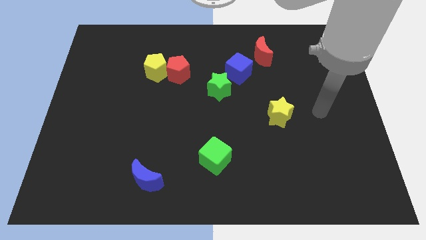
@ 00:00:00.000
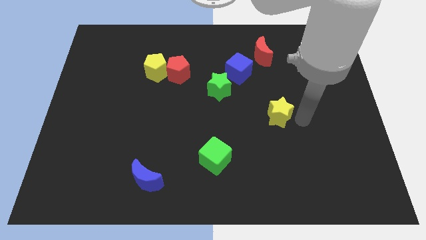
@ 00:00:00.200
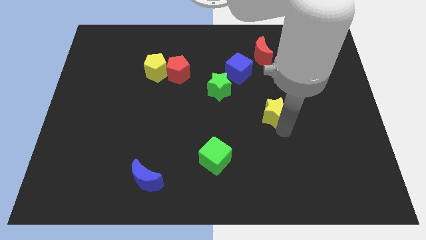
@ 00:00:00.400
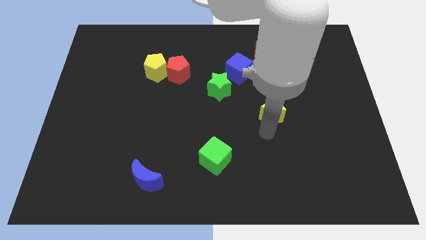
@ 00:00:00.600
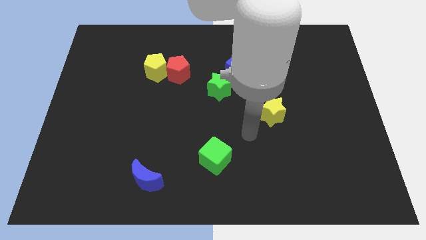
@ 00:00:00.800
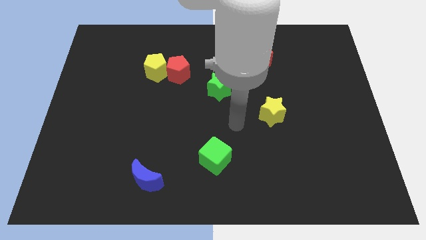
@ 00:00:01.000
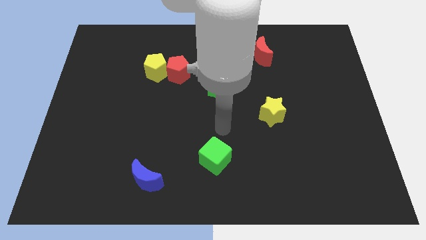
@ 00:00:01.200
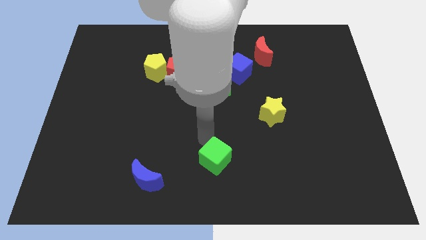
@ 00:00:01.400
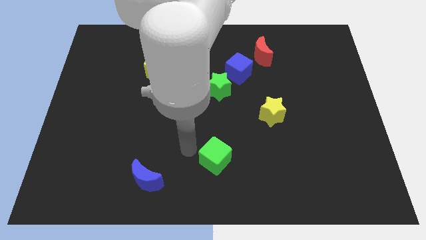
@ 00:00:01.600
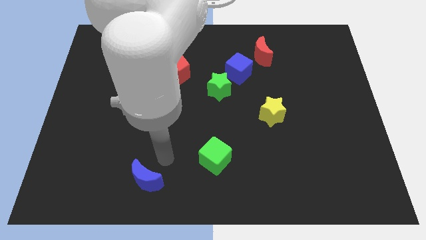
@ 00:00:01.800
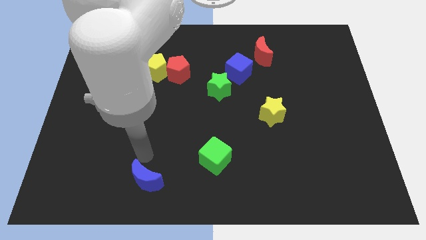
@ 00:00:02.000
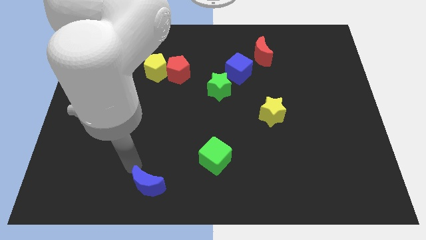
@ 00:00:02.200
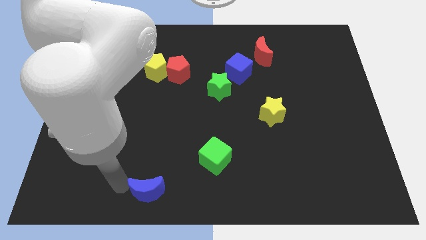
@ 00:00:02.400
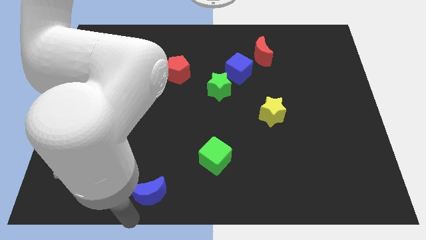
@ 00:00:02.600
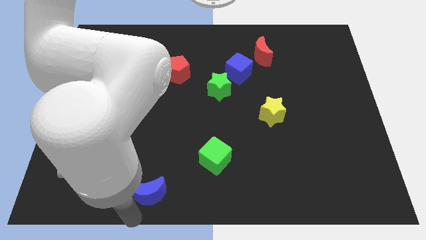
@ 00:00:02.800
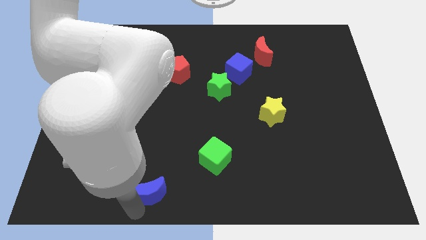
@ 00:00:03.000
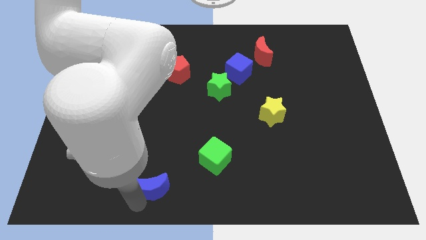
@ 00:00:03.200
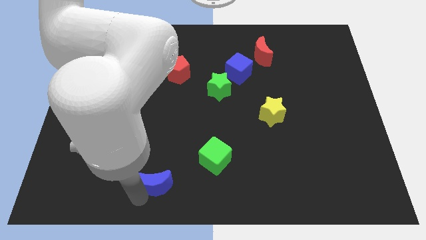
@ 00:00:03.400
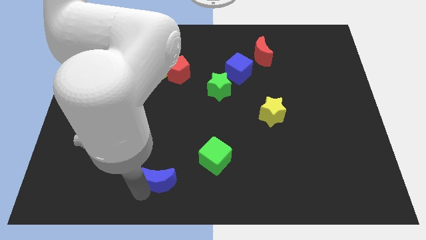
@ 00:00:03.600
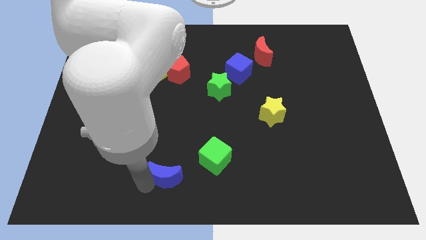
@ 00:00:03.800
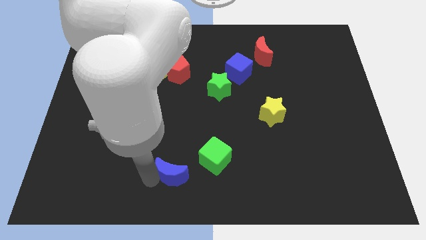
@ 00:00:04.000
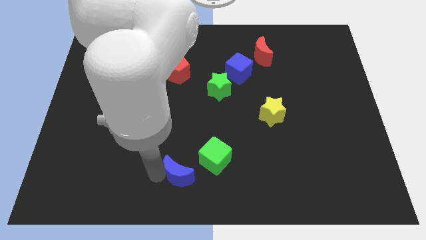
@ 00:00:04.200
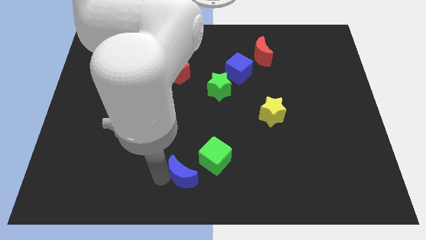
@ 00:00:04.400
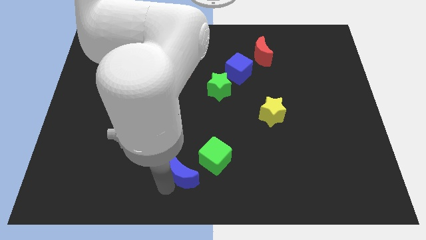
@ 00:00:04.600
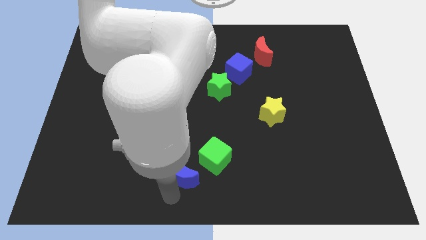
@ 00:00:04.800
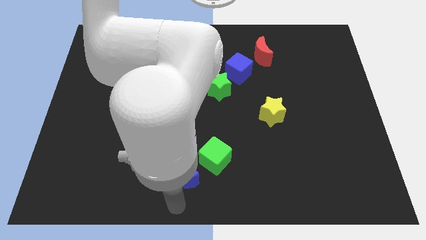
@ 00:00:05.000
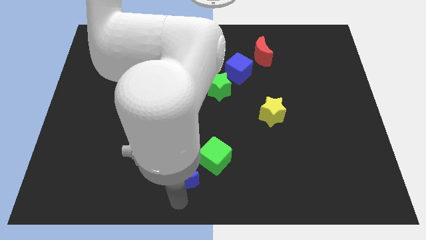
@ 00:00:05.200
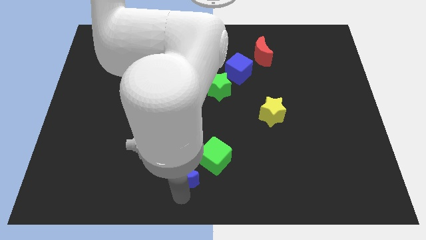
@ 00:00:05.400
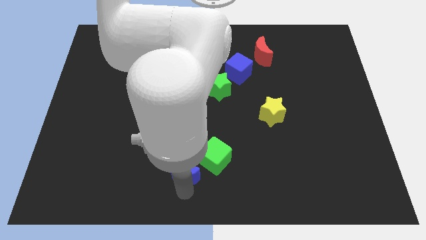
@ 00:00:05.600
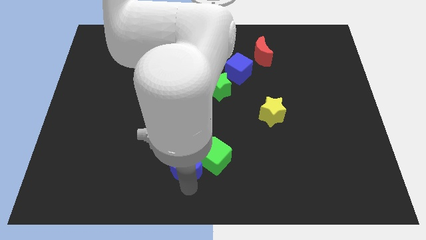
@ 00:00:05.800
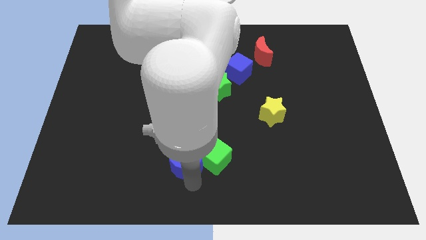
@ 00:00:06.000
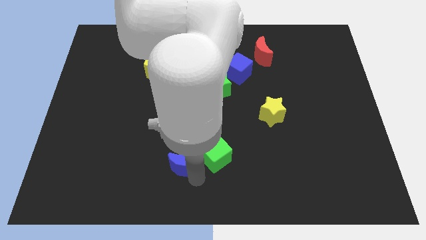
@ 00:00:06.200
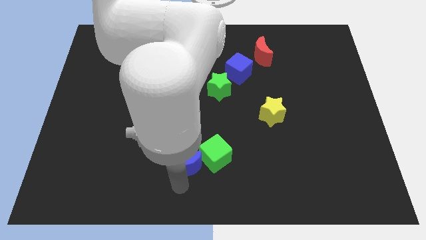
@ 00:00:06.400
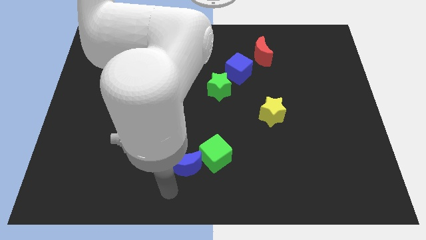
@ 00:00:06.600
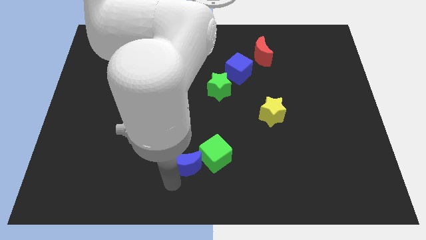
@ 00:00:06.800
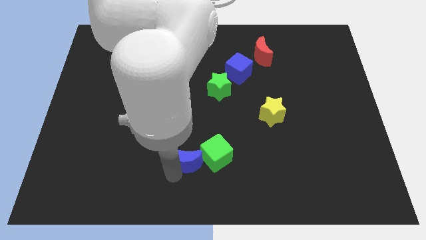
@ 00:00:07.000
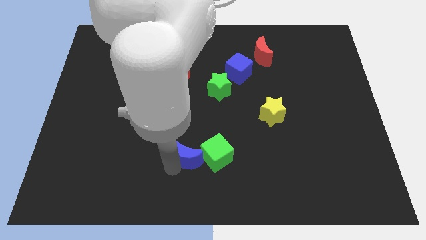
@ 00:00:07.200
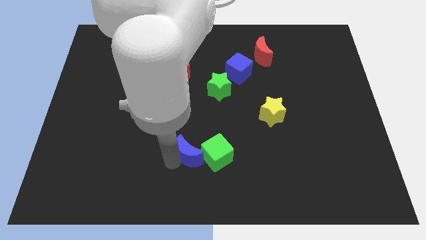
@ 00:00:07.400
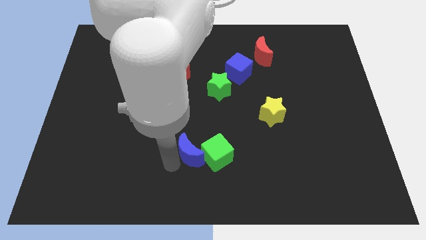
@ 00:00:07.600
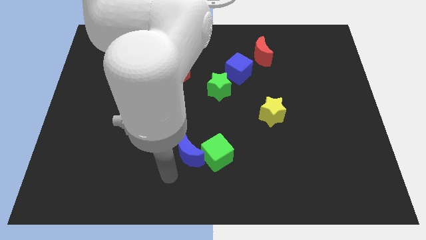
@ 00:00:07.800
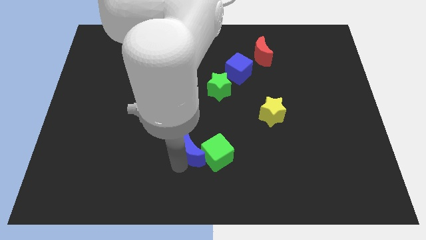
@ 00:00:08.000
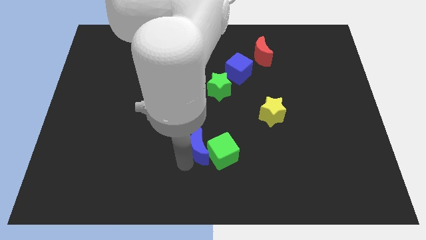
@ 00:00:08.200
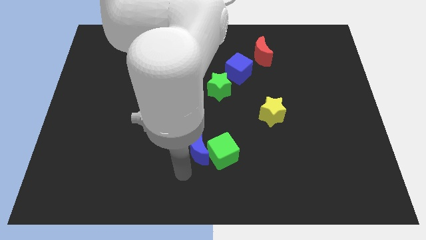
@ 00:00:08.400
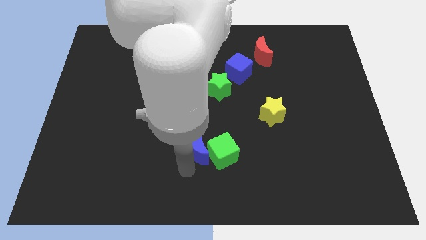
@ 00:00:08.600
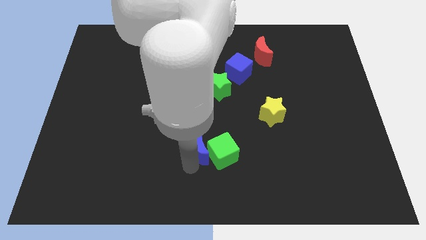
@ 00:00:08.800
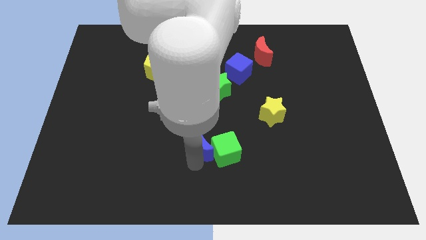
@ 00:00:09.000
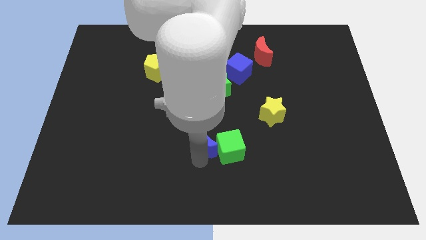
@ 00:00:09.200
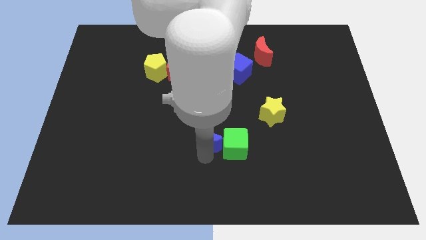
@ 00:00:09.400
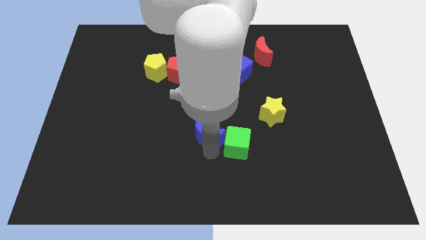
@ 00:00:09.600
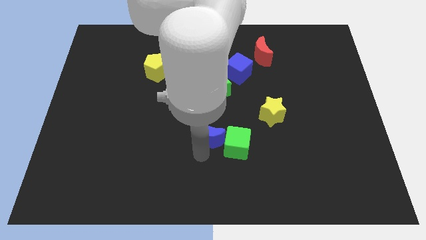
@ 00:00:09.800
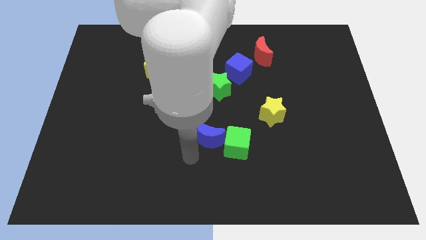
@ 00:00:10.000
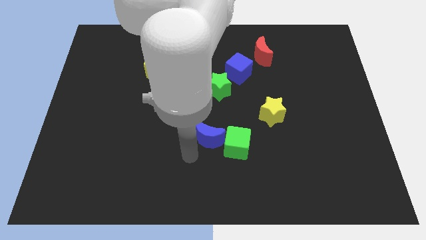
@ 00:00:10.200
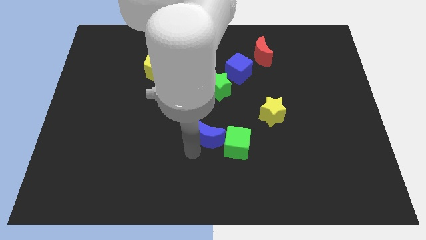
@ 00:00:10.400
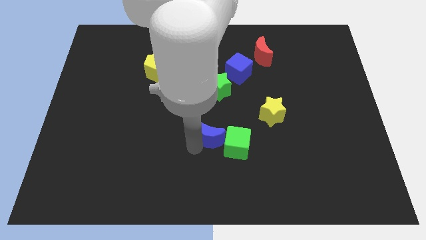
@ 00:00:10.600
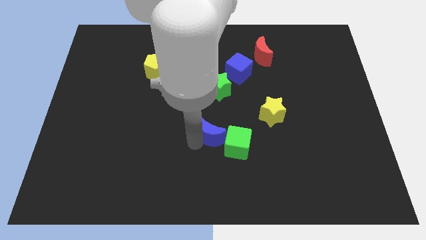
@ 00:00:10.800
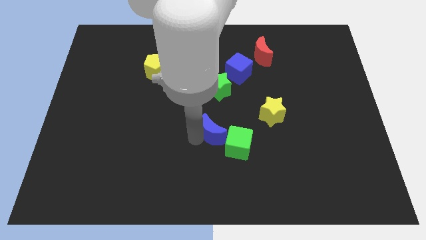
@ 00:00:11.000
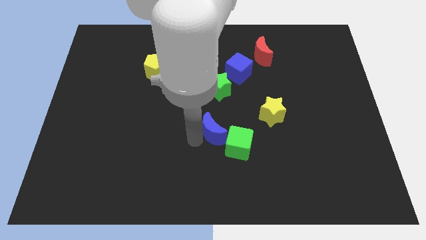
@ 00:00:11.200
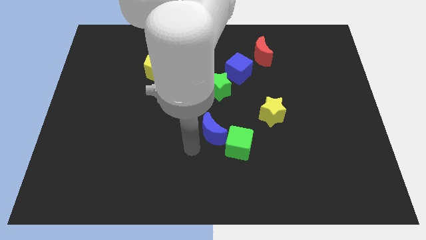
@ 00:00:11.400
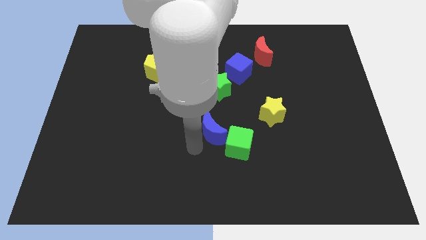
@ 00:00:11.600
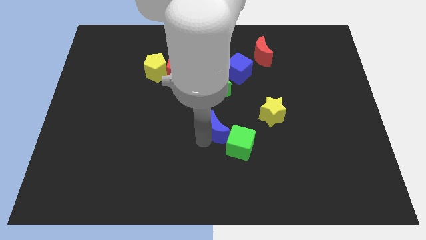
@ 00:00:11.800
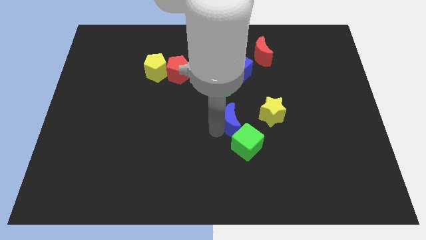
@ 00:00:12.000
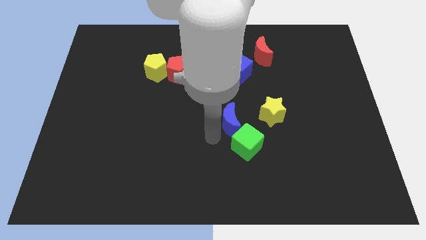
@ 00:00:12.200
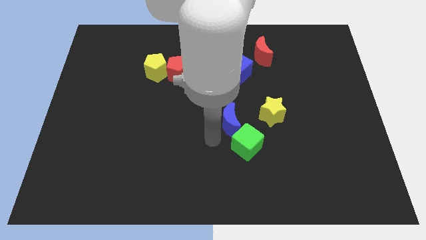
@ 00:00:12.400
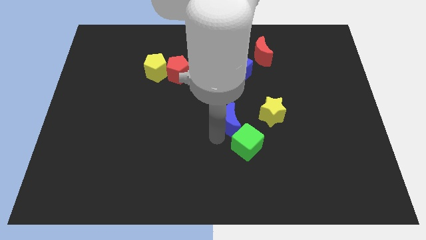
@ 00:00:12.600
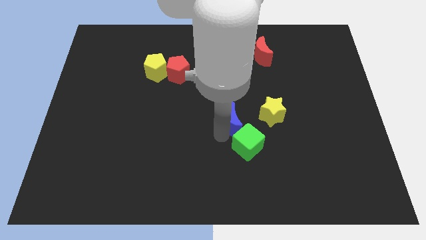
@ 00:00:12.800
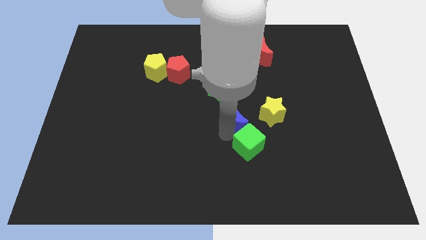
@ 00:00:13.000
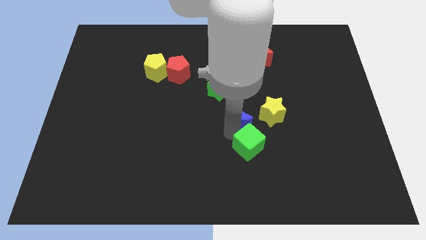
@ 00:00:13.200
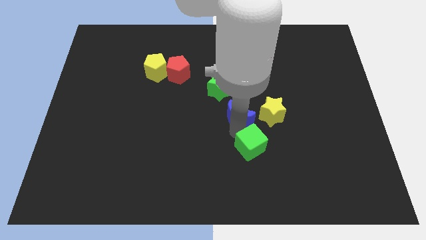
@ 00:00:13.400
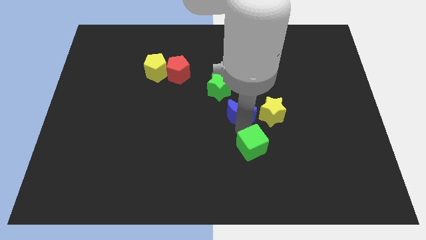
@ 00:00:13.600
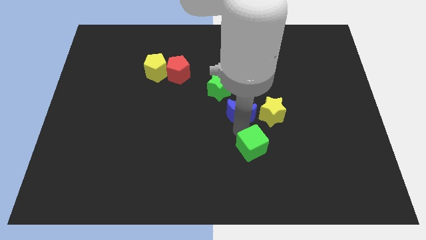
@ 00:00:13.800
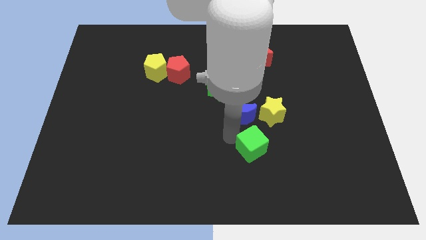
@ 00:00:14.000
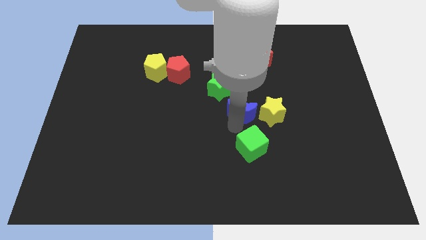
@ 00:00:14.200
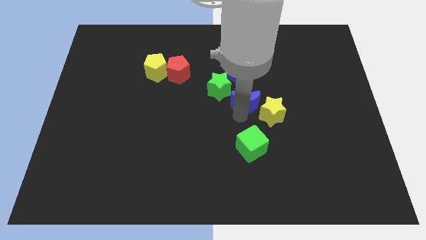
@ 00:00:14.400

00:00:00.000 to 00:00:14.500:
push the blue moon just right of the green star

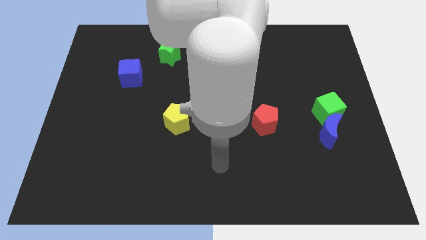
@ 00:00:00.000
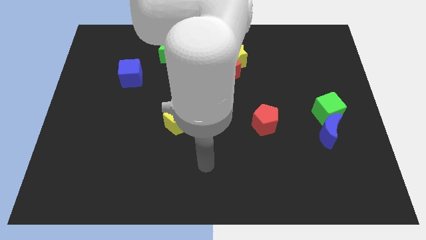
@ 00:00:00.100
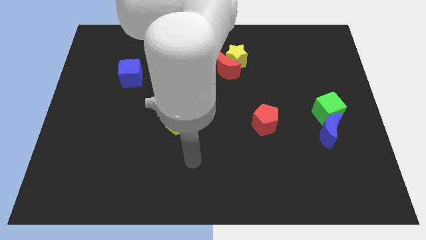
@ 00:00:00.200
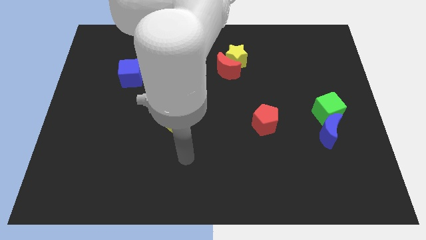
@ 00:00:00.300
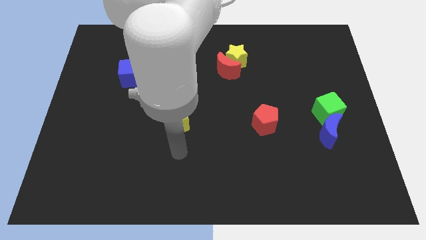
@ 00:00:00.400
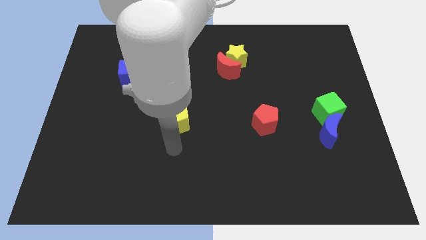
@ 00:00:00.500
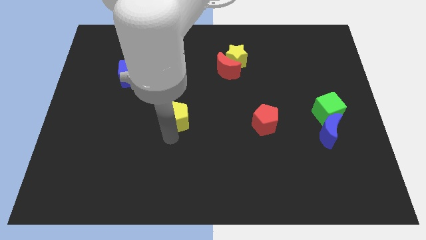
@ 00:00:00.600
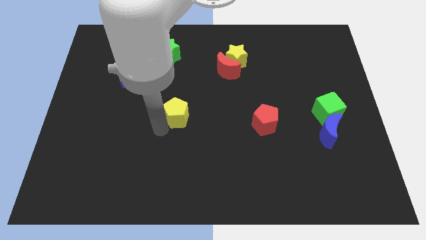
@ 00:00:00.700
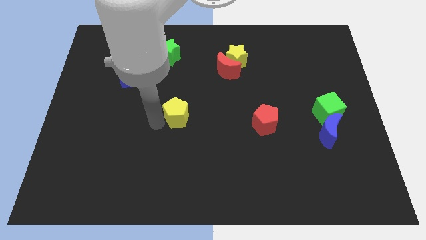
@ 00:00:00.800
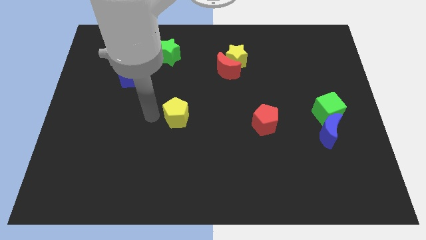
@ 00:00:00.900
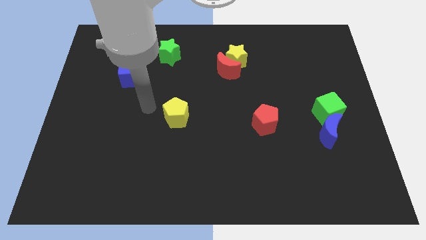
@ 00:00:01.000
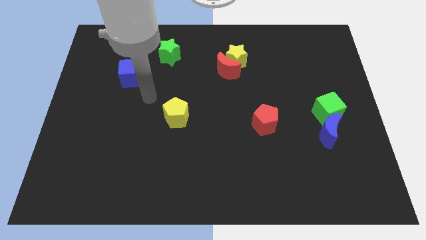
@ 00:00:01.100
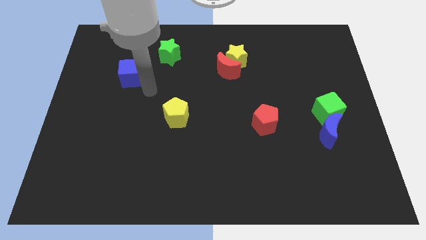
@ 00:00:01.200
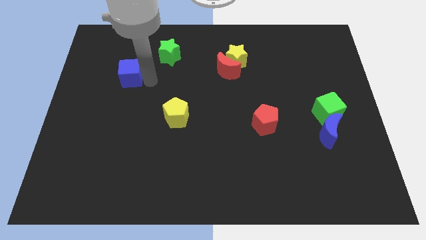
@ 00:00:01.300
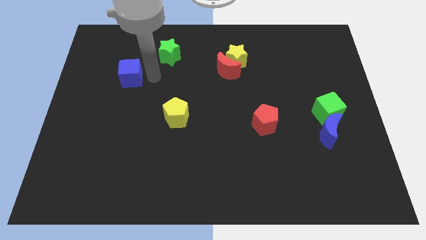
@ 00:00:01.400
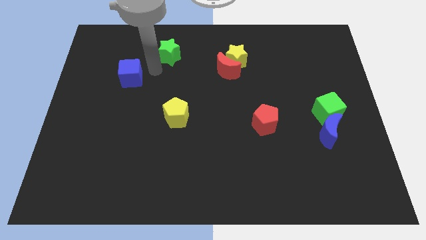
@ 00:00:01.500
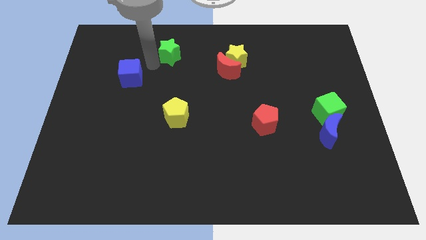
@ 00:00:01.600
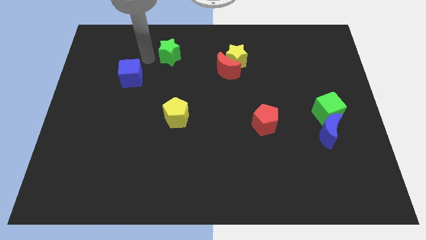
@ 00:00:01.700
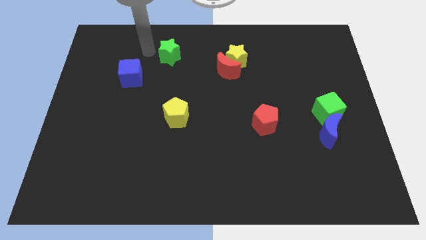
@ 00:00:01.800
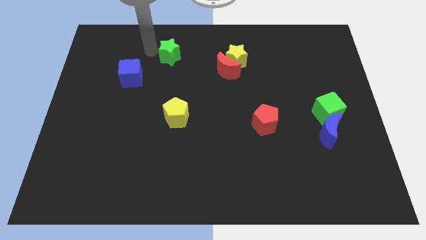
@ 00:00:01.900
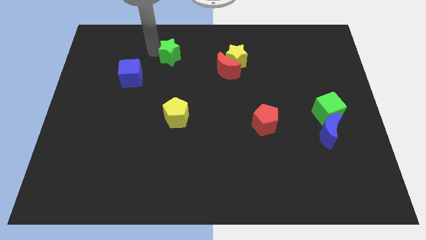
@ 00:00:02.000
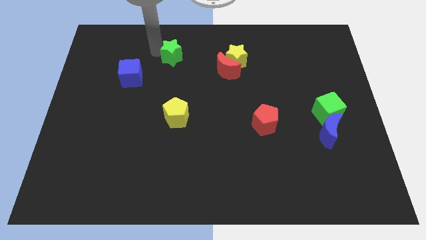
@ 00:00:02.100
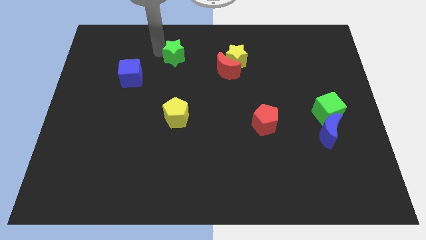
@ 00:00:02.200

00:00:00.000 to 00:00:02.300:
slide the green star to the left side of the yellow star
